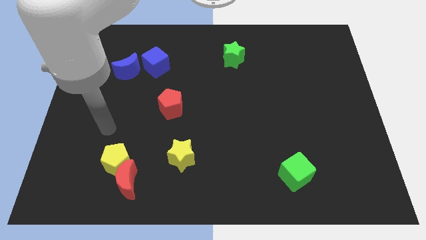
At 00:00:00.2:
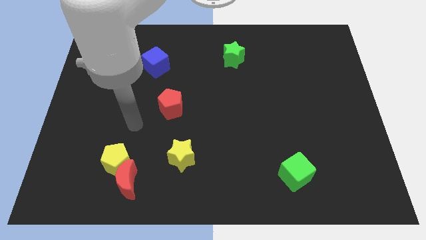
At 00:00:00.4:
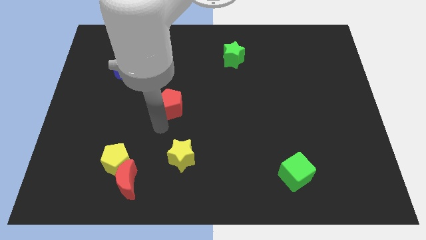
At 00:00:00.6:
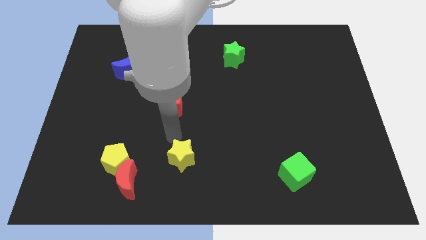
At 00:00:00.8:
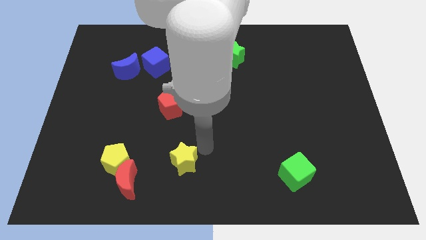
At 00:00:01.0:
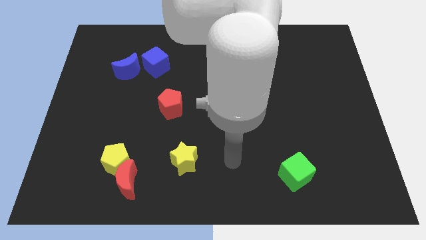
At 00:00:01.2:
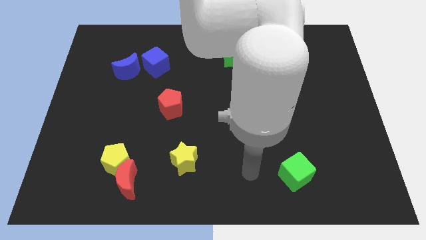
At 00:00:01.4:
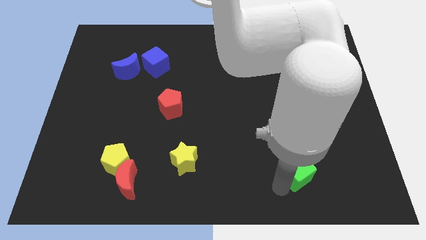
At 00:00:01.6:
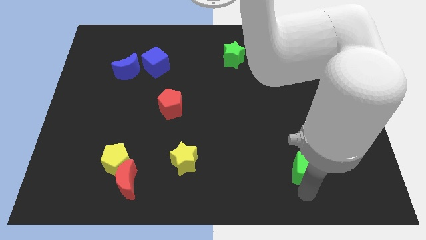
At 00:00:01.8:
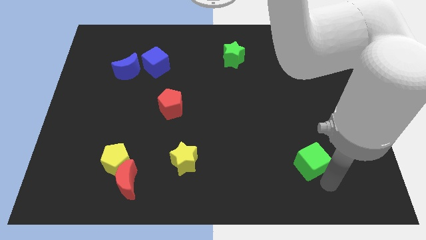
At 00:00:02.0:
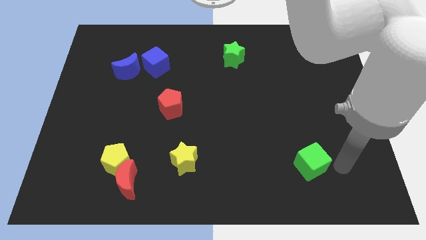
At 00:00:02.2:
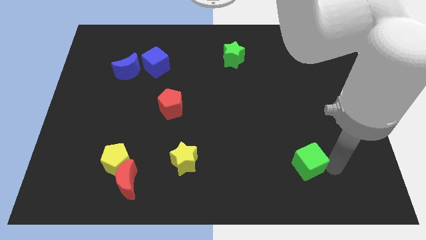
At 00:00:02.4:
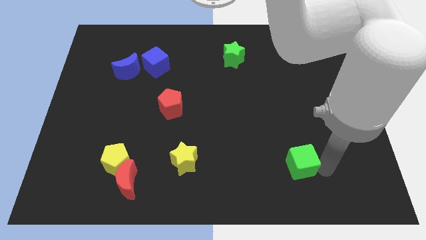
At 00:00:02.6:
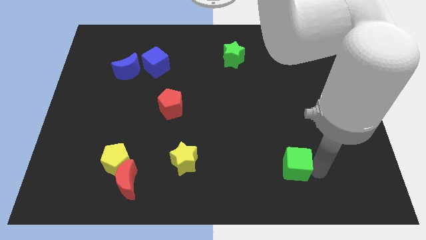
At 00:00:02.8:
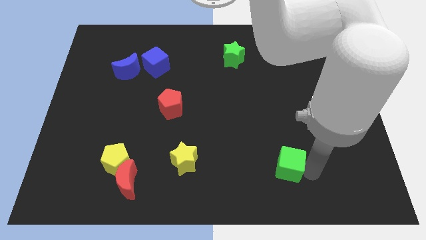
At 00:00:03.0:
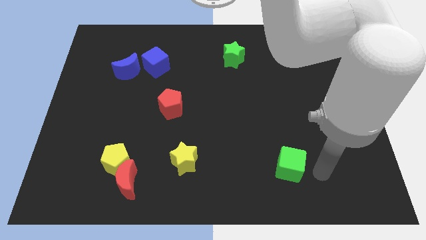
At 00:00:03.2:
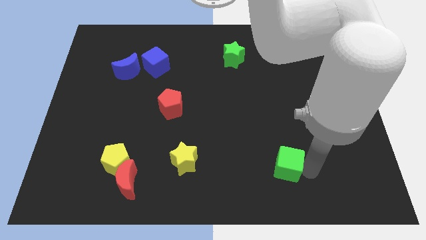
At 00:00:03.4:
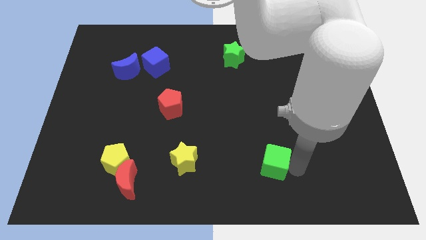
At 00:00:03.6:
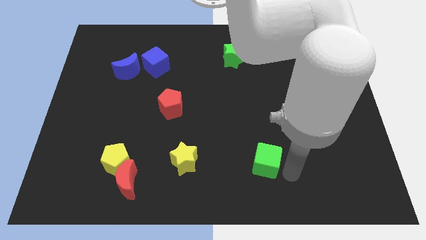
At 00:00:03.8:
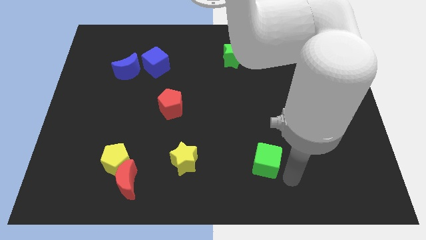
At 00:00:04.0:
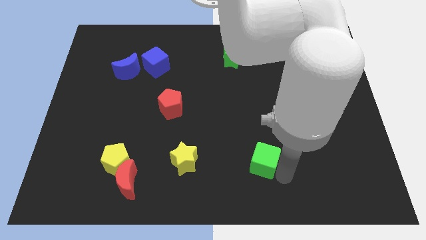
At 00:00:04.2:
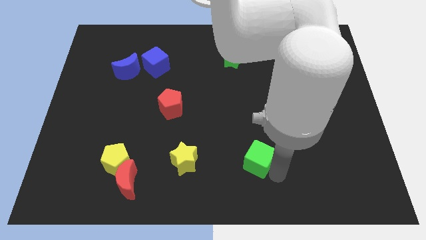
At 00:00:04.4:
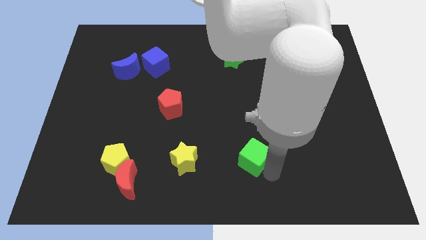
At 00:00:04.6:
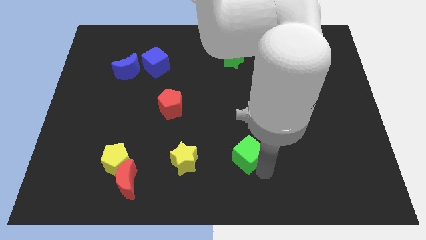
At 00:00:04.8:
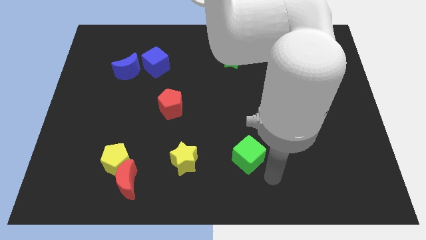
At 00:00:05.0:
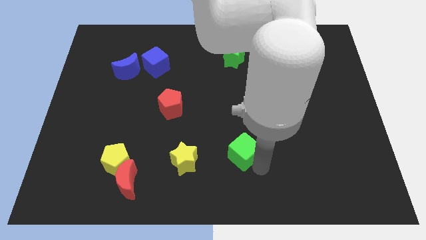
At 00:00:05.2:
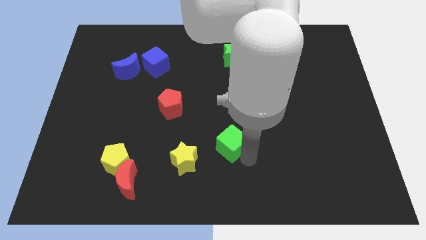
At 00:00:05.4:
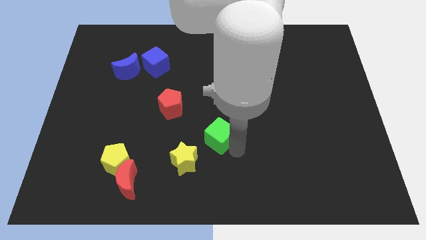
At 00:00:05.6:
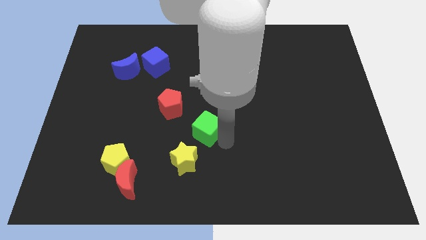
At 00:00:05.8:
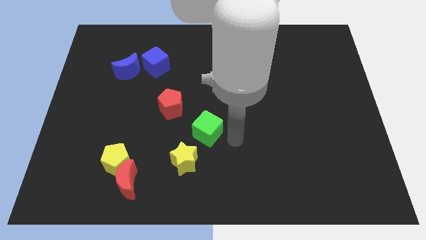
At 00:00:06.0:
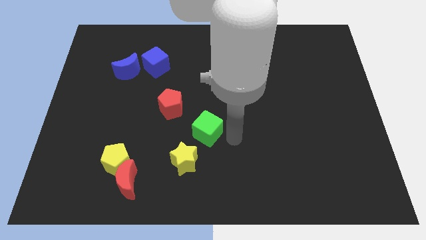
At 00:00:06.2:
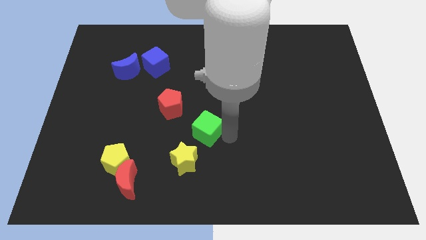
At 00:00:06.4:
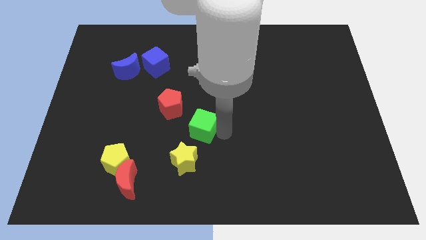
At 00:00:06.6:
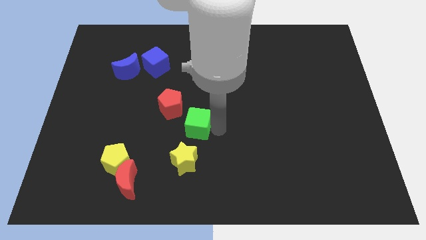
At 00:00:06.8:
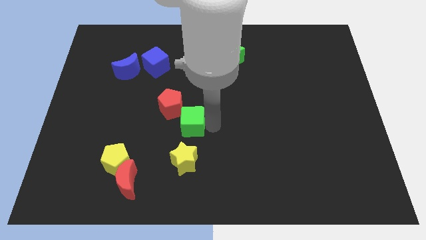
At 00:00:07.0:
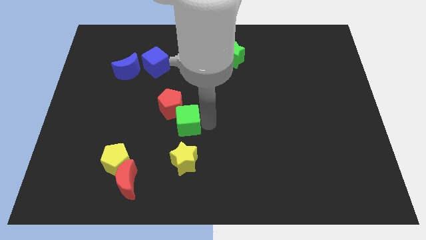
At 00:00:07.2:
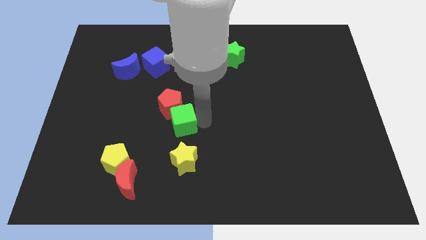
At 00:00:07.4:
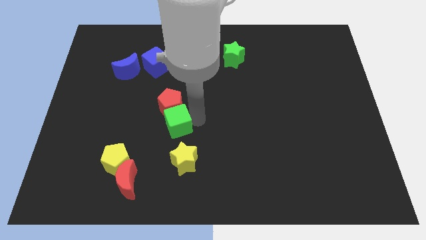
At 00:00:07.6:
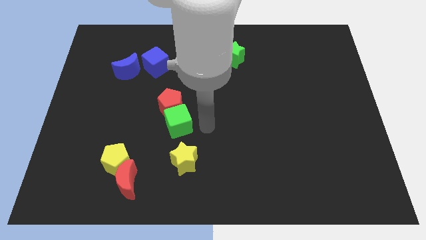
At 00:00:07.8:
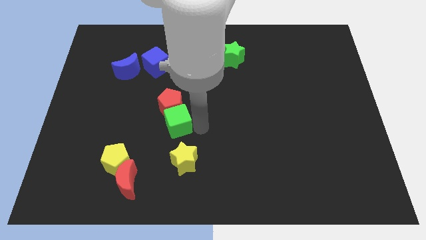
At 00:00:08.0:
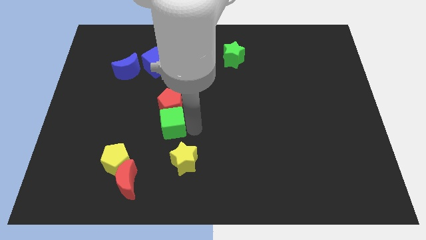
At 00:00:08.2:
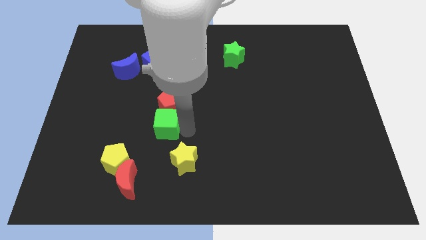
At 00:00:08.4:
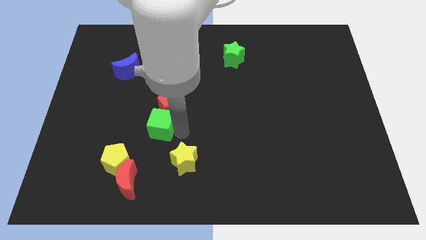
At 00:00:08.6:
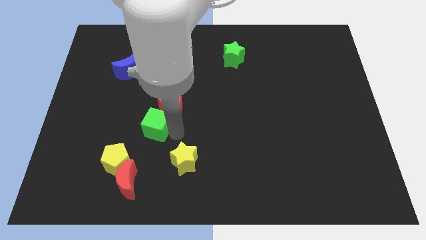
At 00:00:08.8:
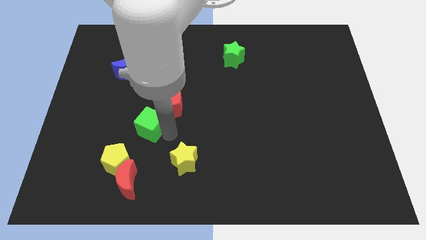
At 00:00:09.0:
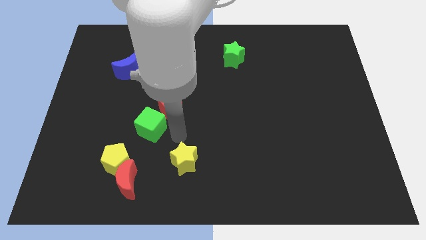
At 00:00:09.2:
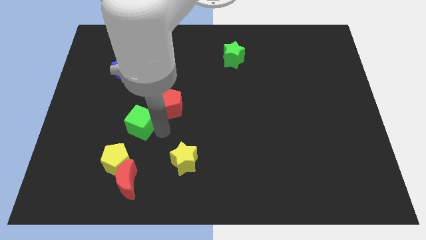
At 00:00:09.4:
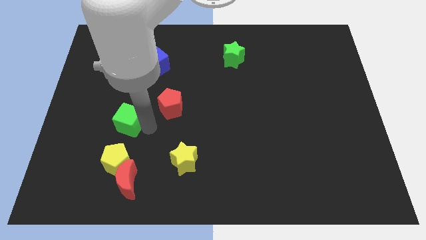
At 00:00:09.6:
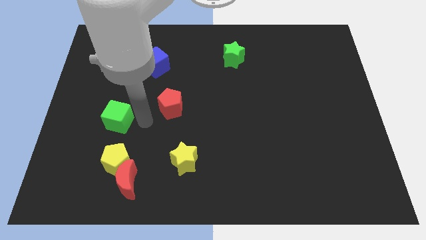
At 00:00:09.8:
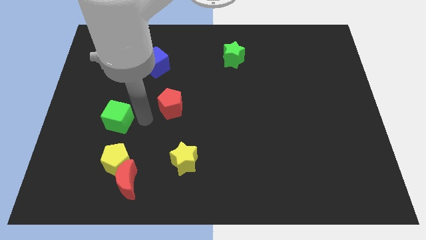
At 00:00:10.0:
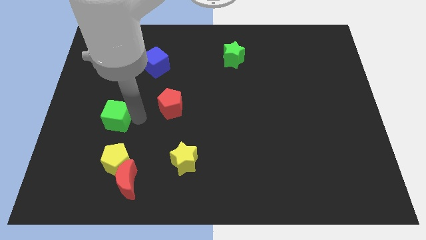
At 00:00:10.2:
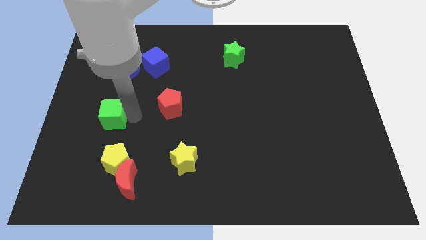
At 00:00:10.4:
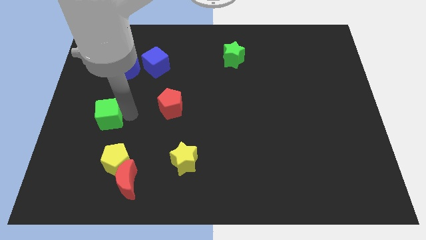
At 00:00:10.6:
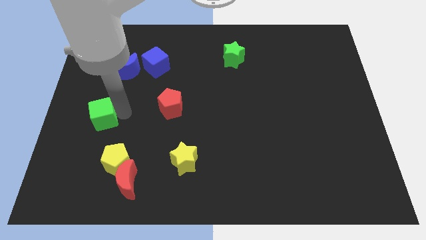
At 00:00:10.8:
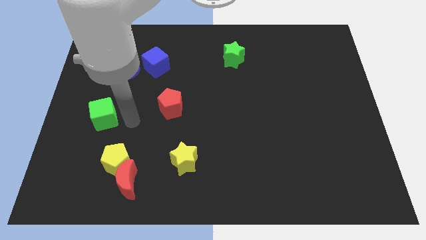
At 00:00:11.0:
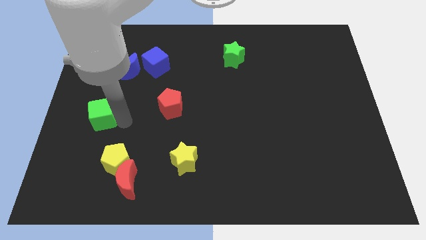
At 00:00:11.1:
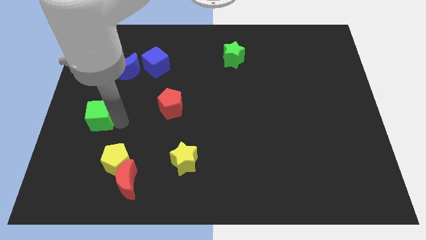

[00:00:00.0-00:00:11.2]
move the green cube to the center left

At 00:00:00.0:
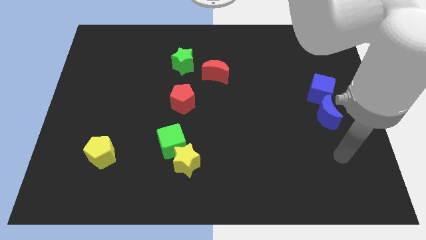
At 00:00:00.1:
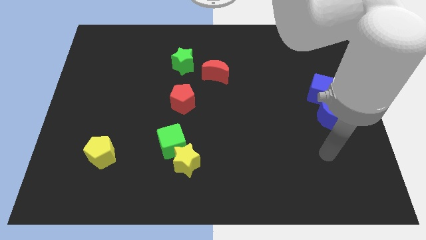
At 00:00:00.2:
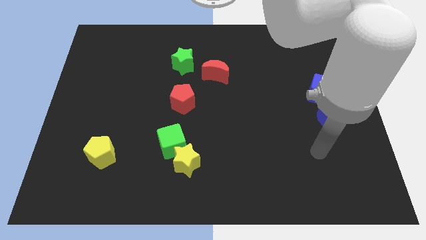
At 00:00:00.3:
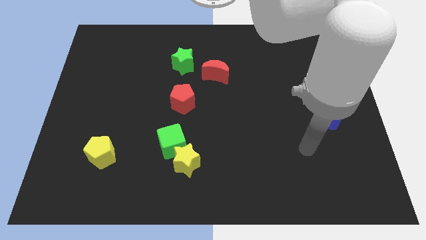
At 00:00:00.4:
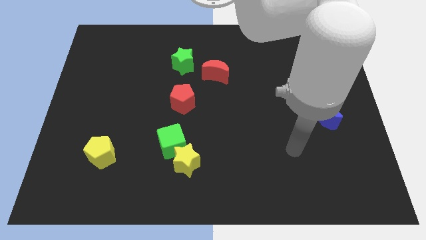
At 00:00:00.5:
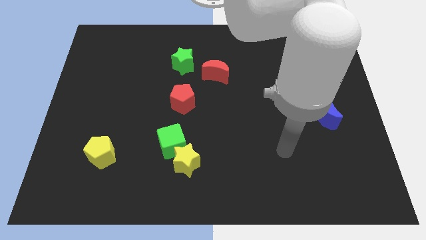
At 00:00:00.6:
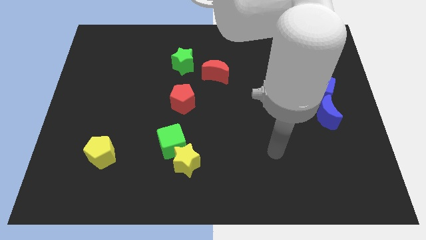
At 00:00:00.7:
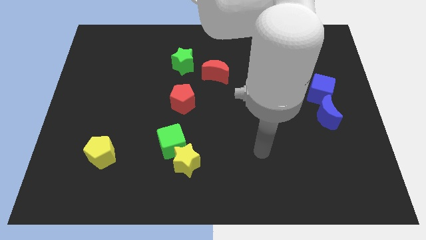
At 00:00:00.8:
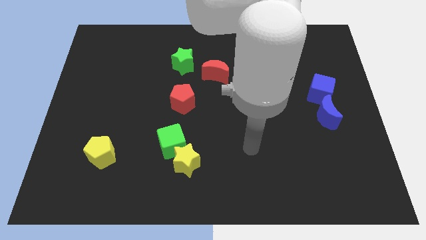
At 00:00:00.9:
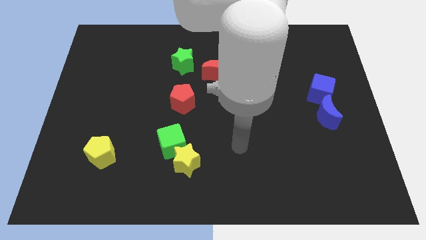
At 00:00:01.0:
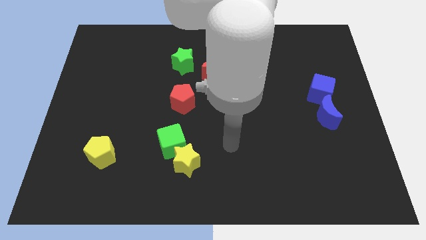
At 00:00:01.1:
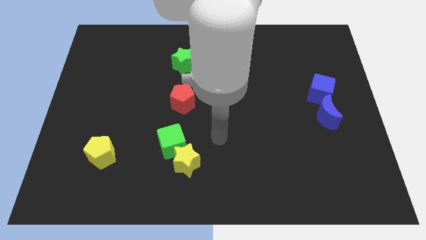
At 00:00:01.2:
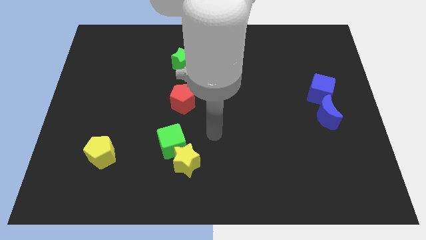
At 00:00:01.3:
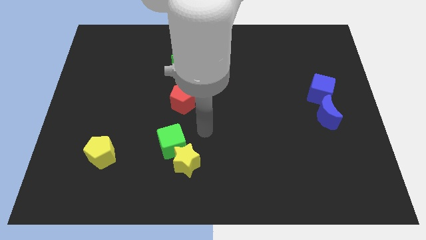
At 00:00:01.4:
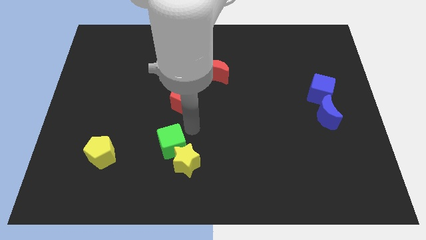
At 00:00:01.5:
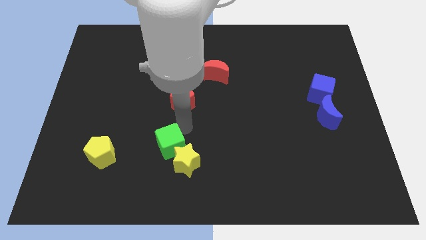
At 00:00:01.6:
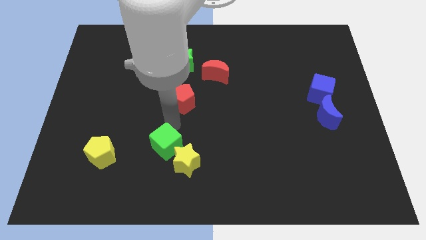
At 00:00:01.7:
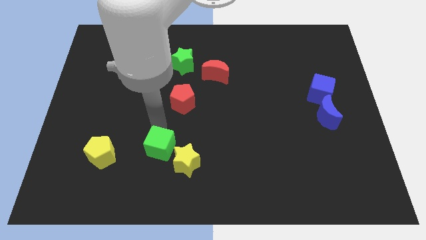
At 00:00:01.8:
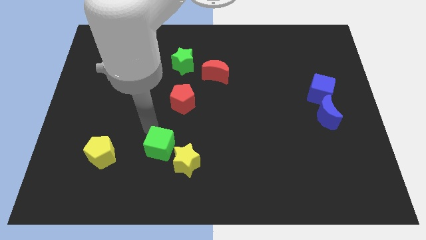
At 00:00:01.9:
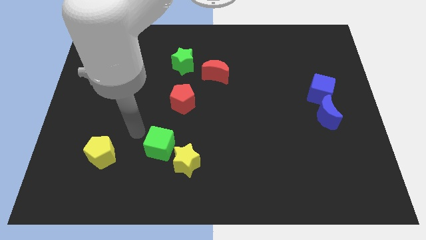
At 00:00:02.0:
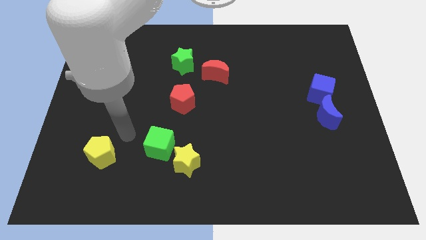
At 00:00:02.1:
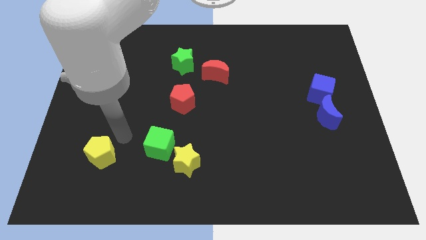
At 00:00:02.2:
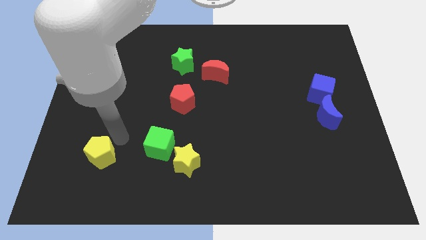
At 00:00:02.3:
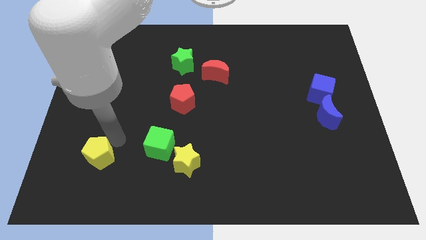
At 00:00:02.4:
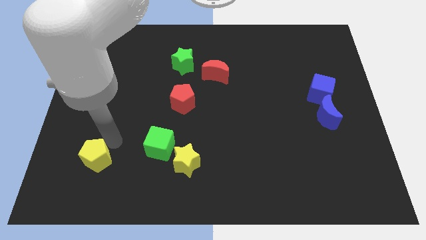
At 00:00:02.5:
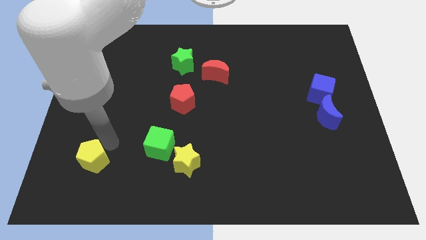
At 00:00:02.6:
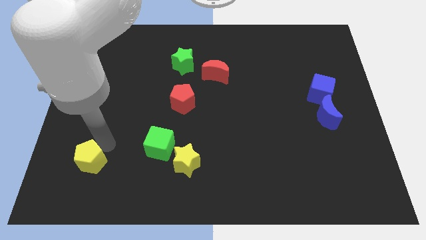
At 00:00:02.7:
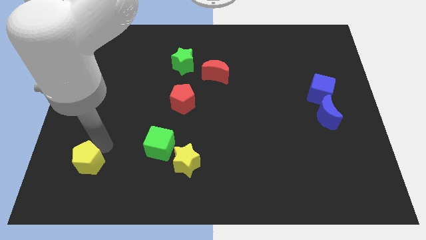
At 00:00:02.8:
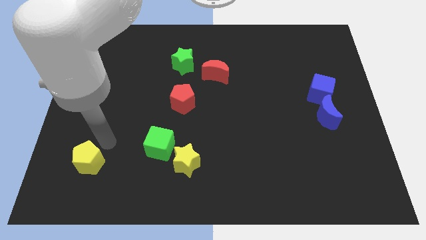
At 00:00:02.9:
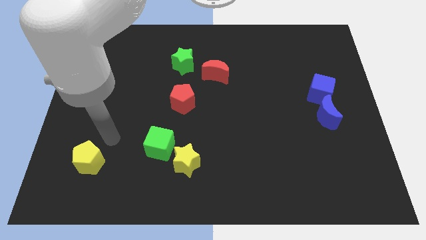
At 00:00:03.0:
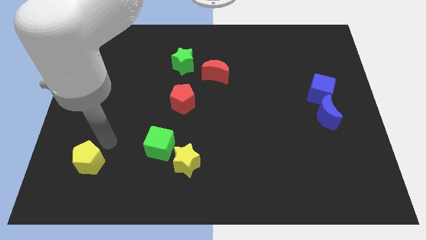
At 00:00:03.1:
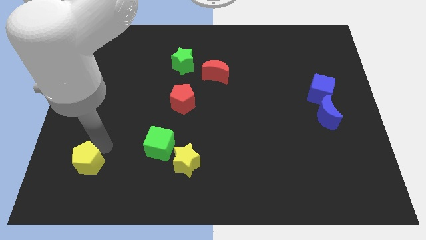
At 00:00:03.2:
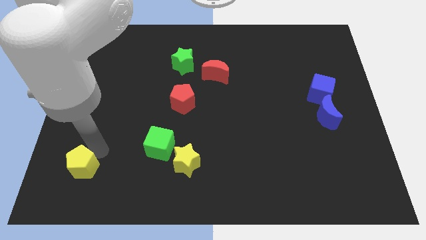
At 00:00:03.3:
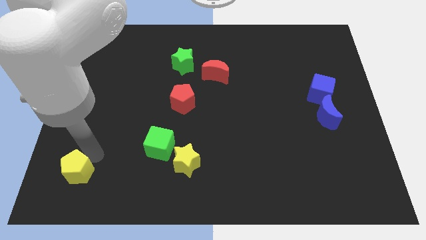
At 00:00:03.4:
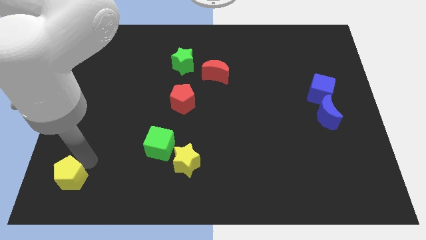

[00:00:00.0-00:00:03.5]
slide the yellow pentagon to the bottom left of the board
